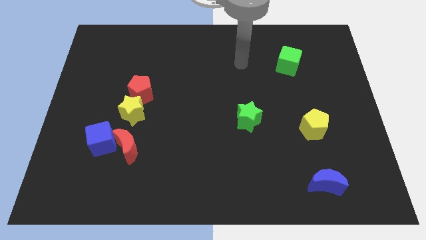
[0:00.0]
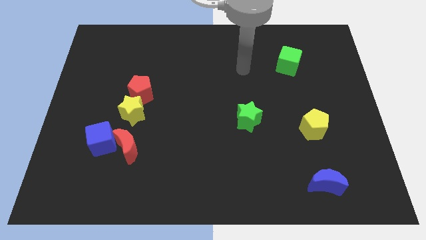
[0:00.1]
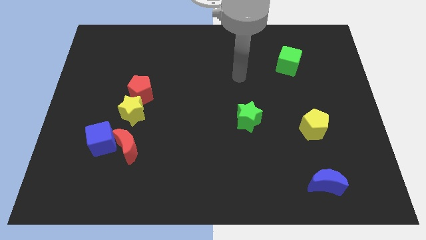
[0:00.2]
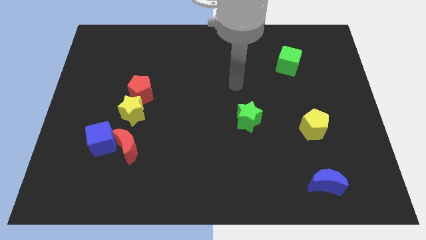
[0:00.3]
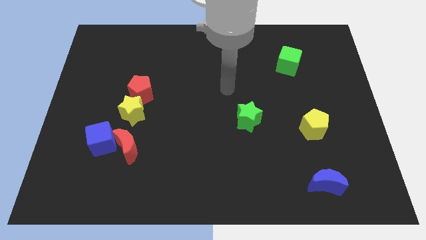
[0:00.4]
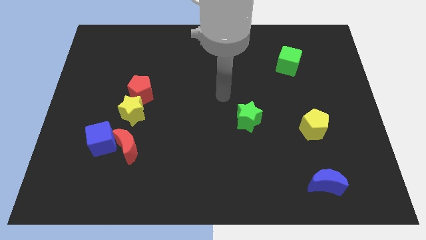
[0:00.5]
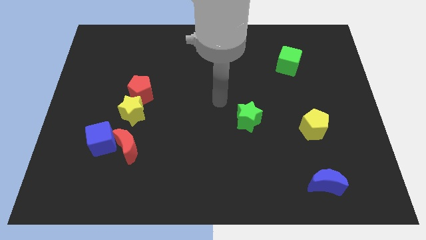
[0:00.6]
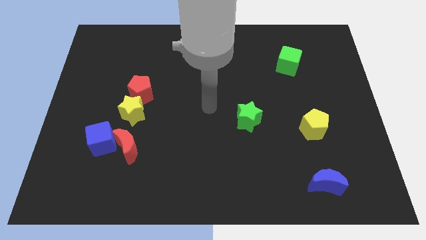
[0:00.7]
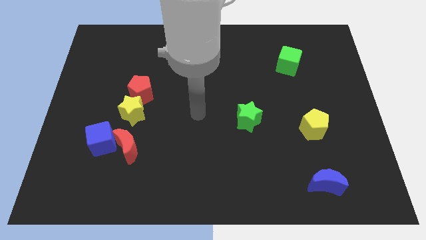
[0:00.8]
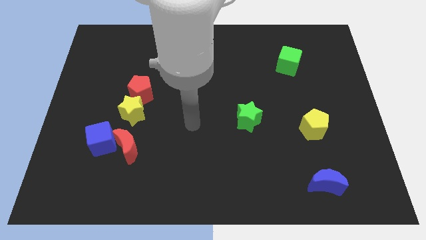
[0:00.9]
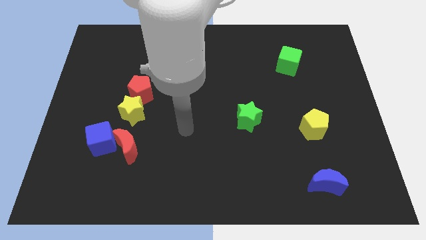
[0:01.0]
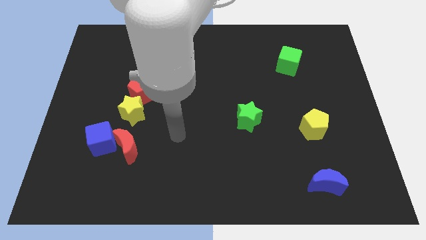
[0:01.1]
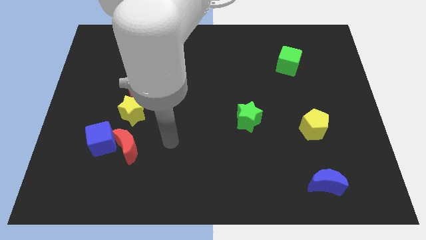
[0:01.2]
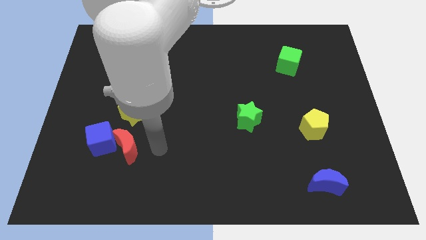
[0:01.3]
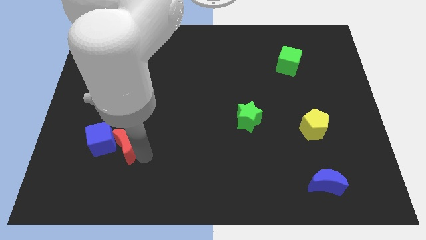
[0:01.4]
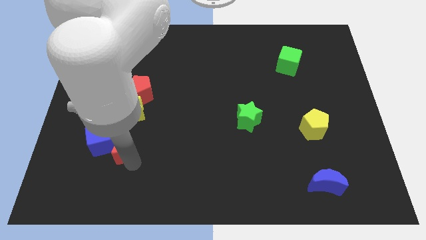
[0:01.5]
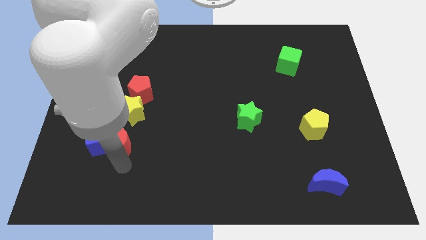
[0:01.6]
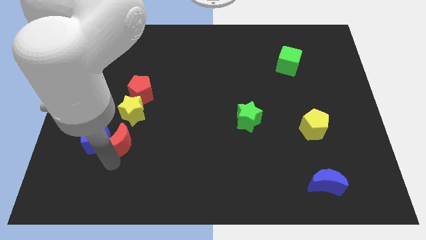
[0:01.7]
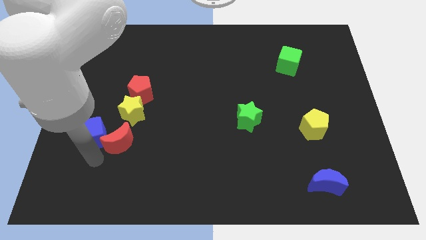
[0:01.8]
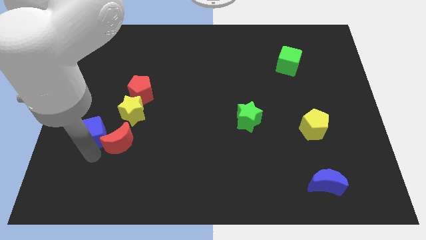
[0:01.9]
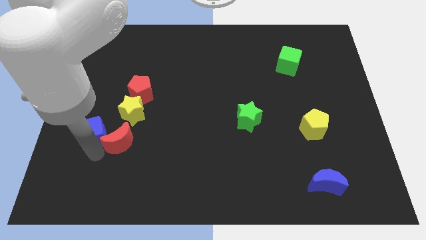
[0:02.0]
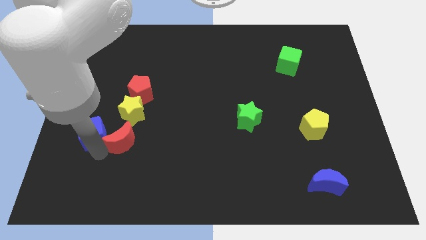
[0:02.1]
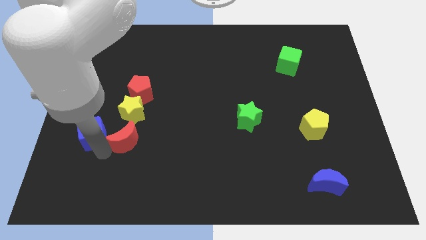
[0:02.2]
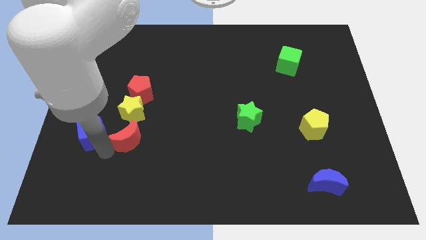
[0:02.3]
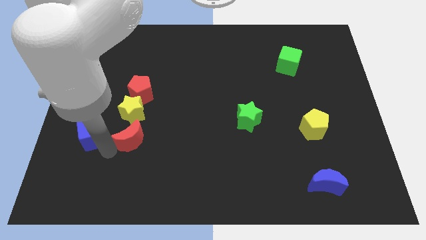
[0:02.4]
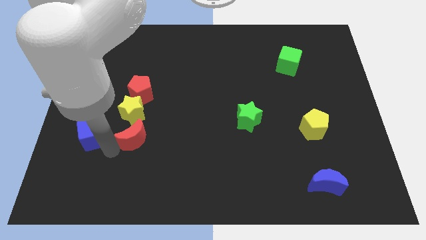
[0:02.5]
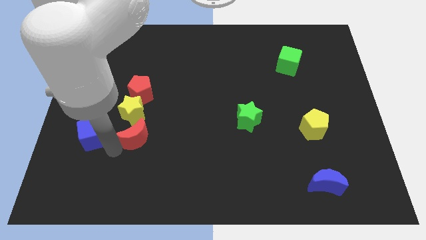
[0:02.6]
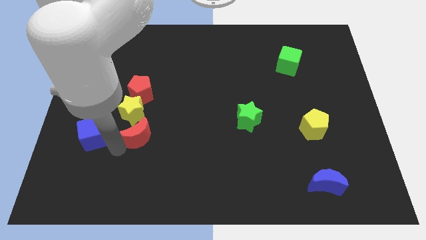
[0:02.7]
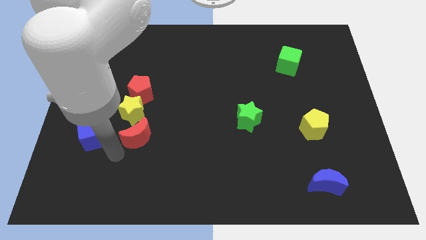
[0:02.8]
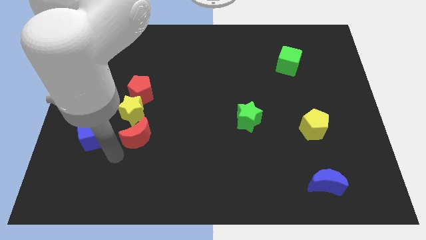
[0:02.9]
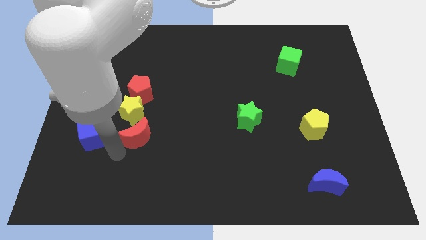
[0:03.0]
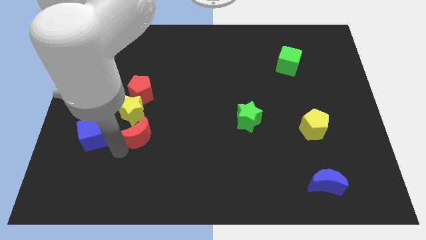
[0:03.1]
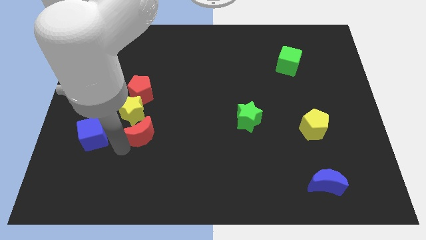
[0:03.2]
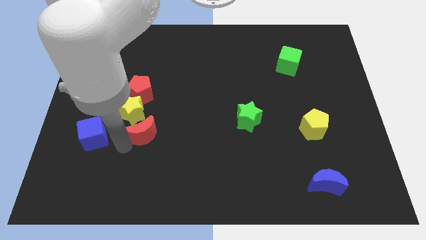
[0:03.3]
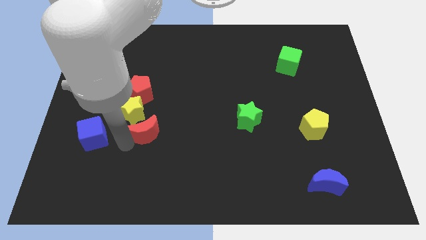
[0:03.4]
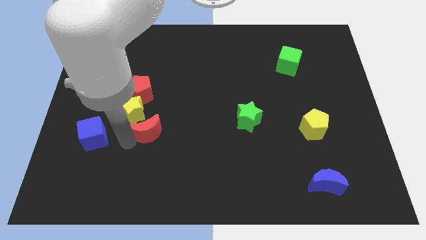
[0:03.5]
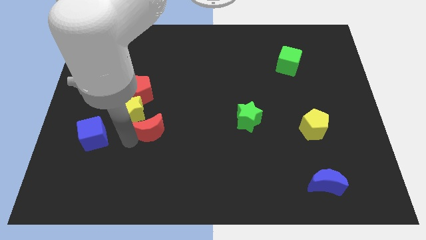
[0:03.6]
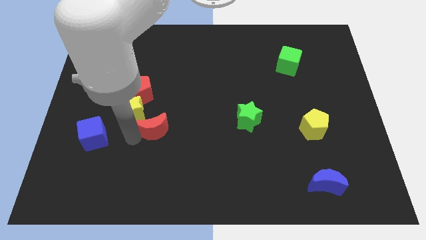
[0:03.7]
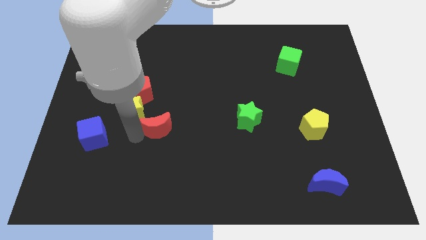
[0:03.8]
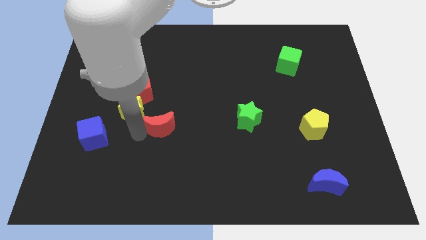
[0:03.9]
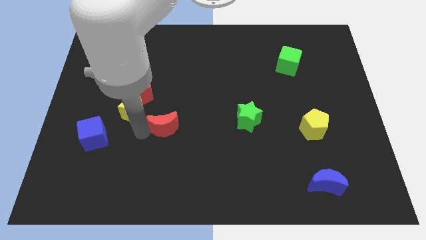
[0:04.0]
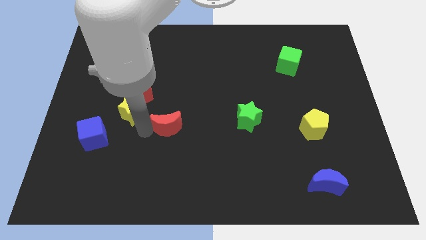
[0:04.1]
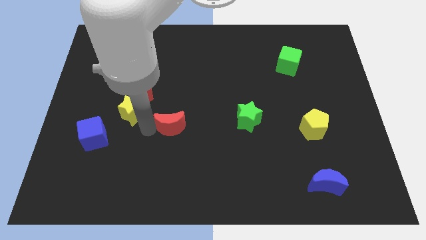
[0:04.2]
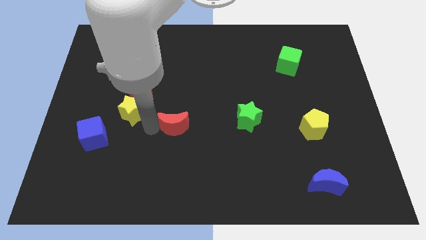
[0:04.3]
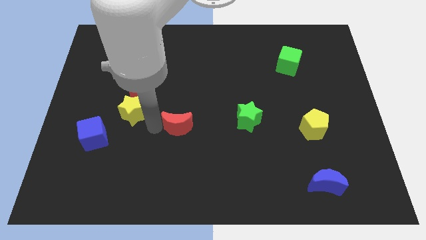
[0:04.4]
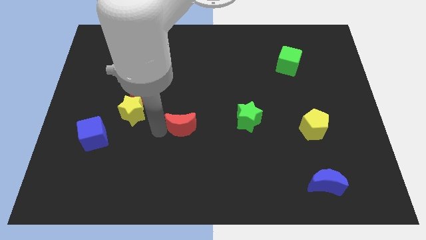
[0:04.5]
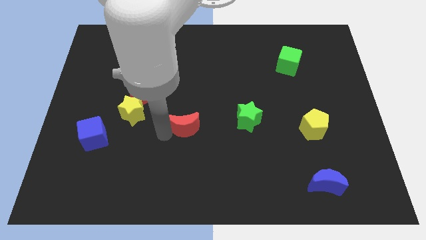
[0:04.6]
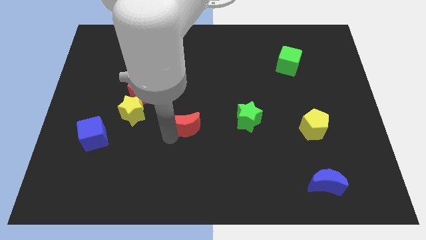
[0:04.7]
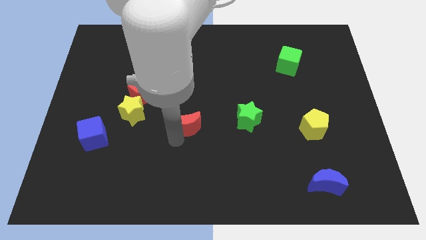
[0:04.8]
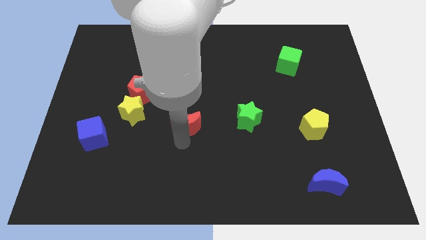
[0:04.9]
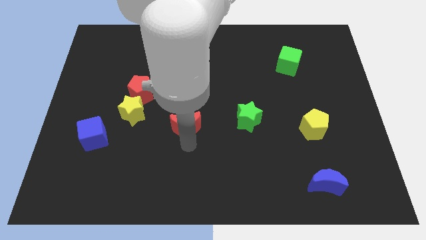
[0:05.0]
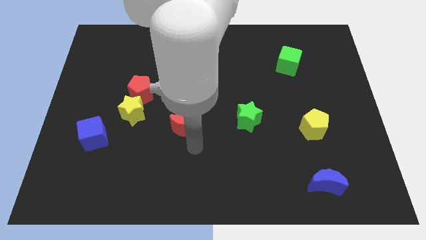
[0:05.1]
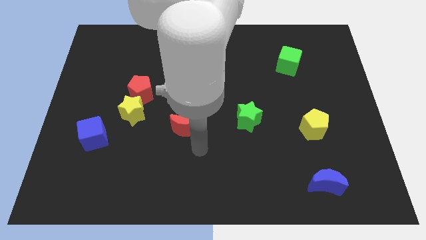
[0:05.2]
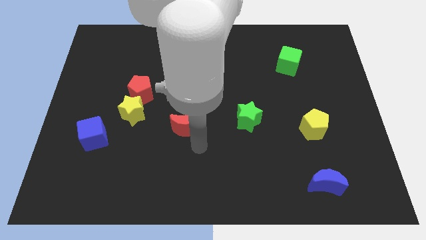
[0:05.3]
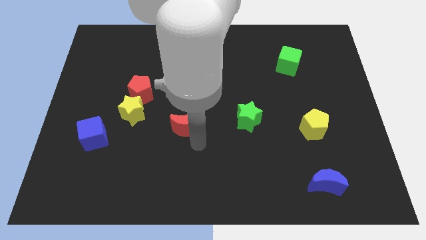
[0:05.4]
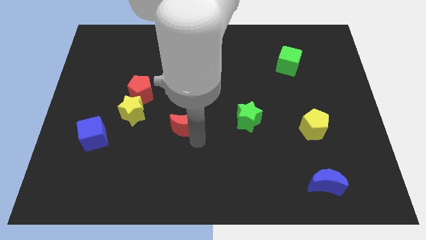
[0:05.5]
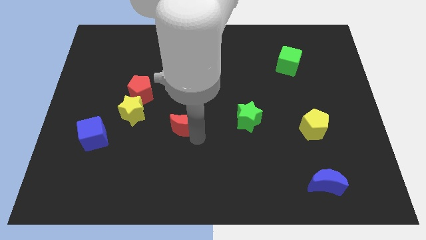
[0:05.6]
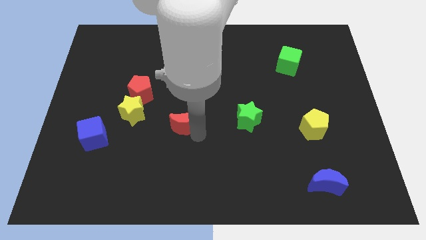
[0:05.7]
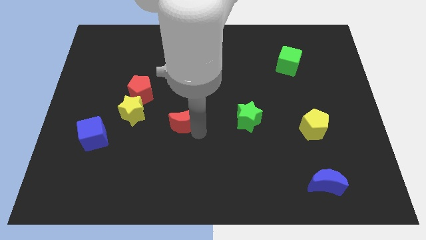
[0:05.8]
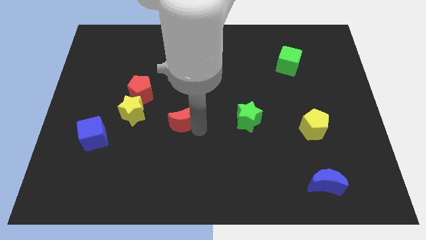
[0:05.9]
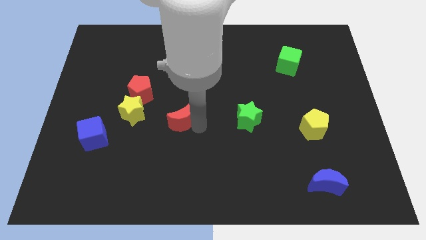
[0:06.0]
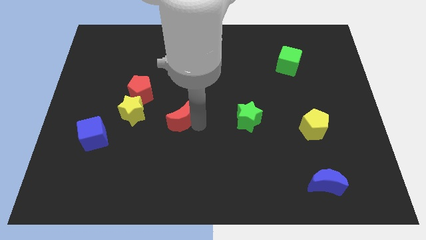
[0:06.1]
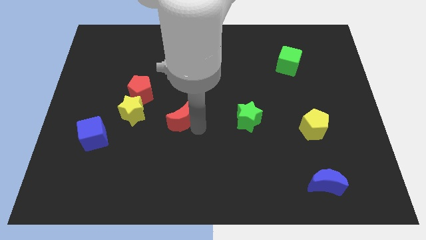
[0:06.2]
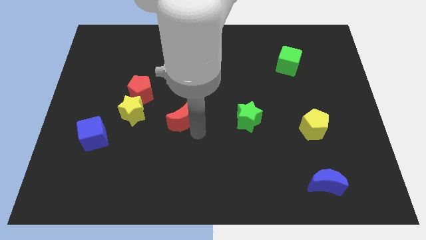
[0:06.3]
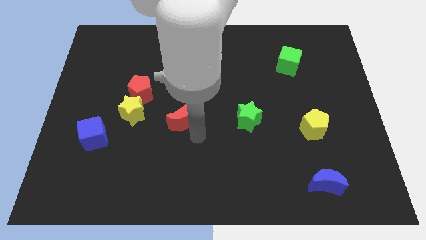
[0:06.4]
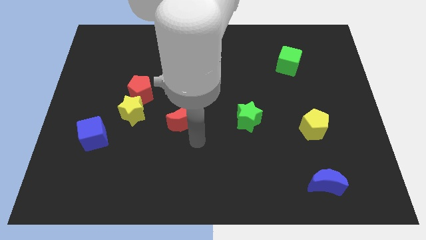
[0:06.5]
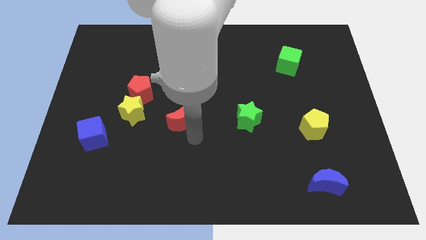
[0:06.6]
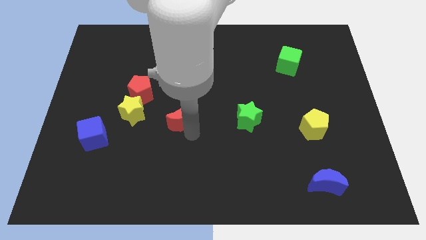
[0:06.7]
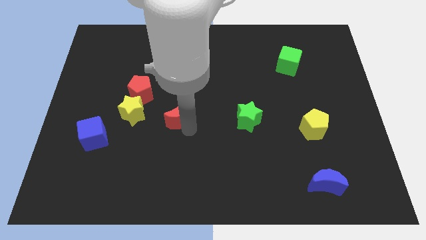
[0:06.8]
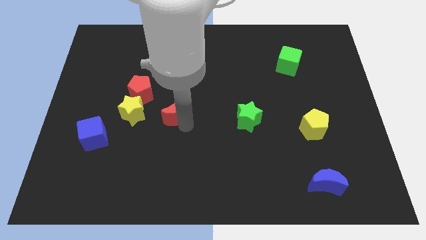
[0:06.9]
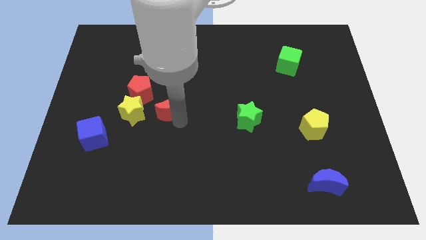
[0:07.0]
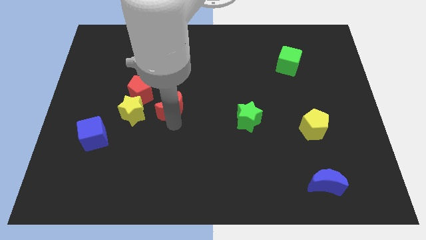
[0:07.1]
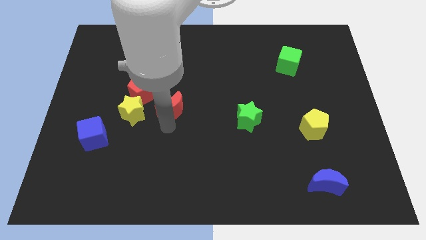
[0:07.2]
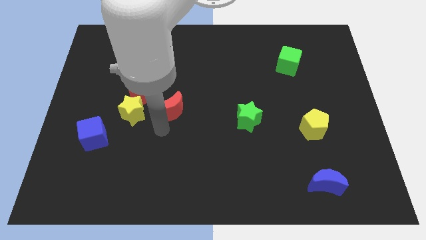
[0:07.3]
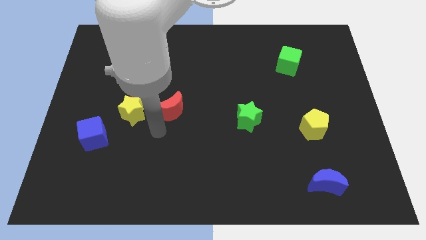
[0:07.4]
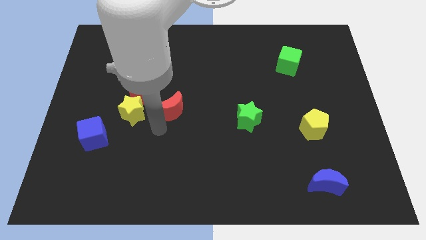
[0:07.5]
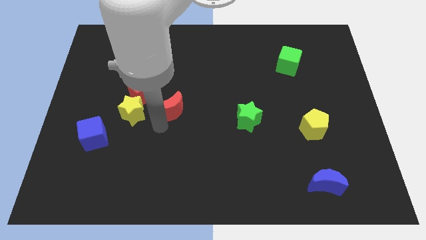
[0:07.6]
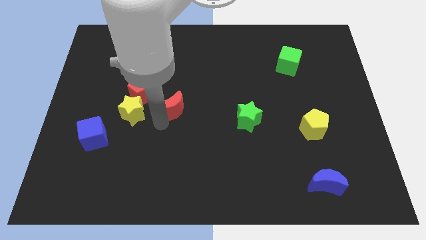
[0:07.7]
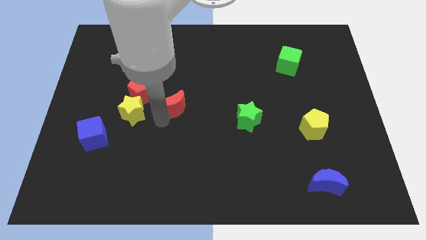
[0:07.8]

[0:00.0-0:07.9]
push the red moon to the right of the red pentagon
